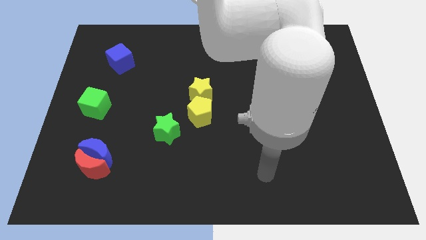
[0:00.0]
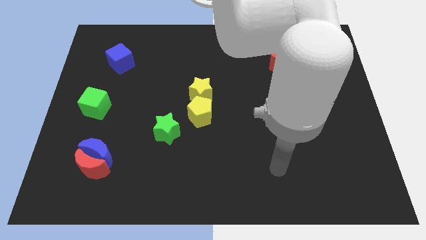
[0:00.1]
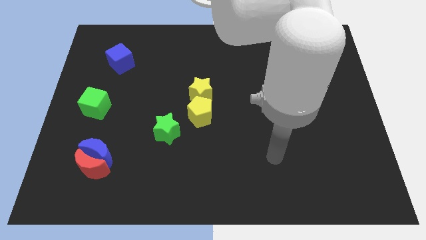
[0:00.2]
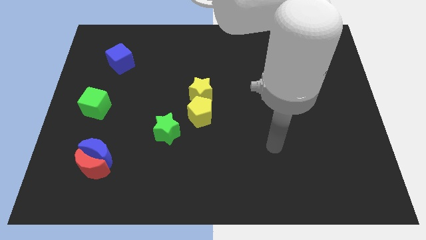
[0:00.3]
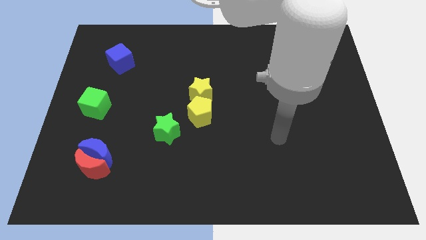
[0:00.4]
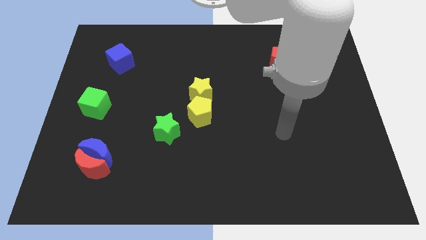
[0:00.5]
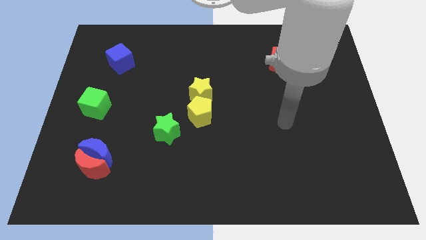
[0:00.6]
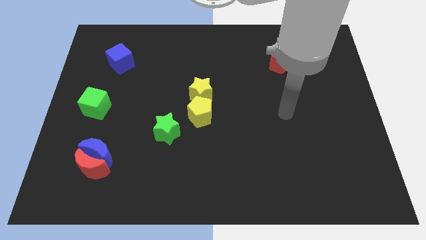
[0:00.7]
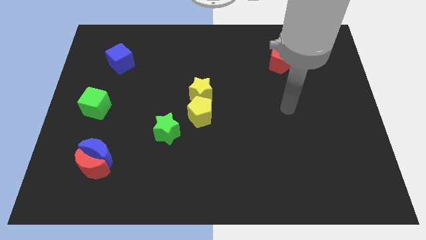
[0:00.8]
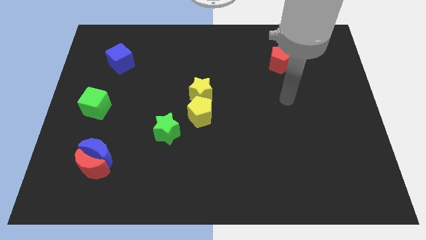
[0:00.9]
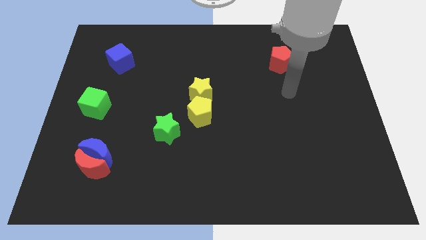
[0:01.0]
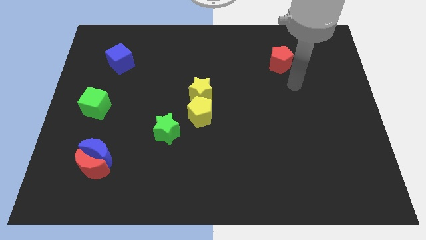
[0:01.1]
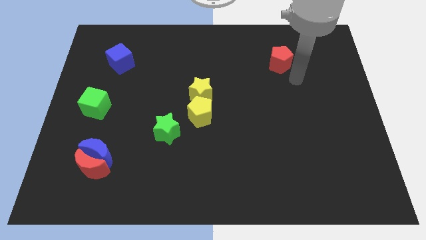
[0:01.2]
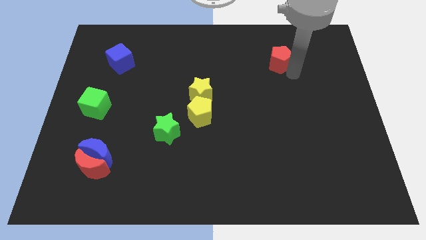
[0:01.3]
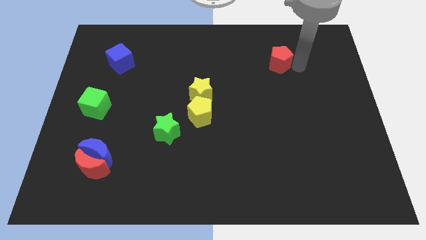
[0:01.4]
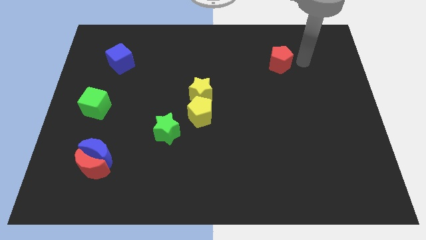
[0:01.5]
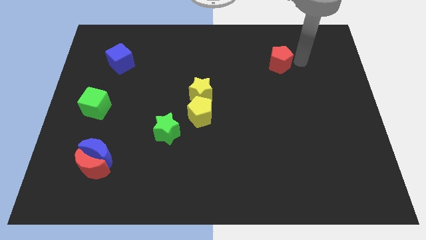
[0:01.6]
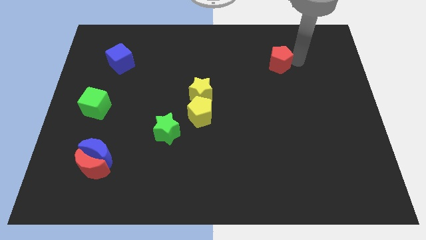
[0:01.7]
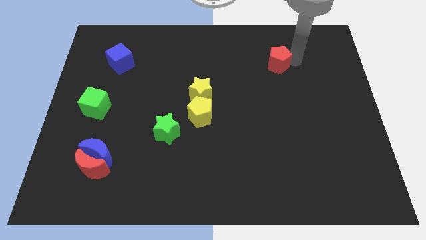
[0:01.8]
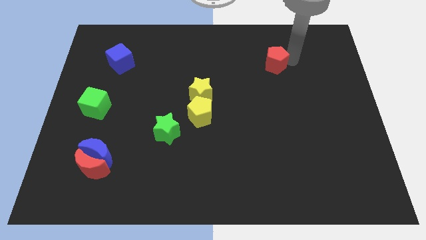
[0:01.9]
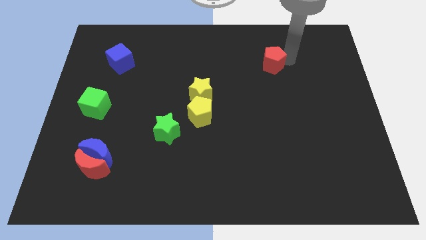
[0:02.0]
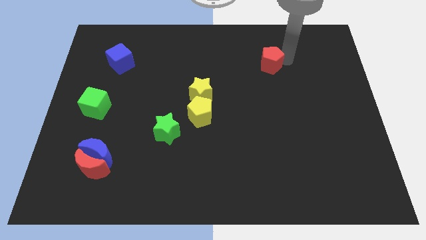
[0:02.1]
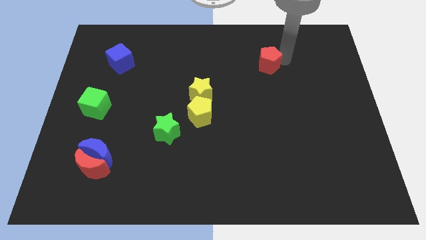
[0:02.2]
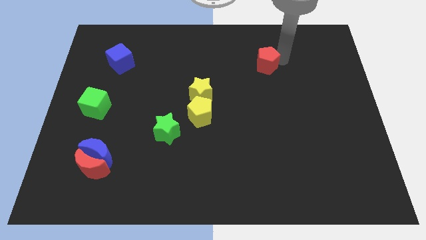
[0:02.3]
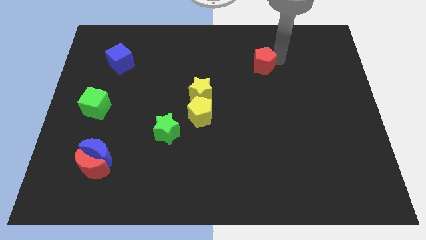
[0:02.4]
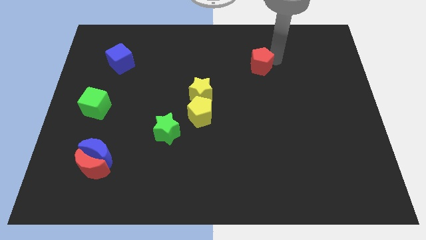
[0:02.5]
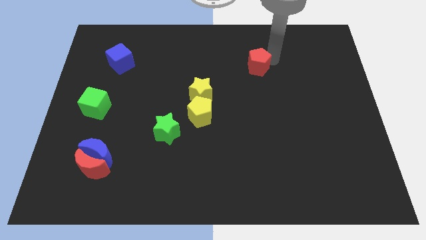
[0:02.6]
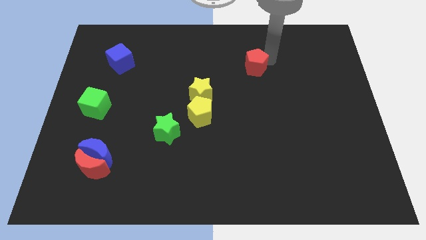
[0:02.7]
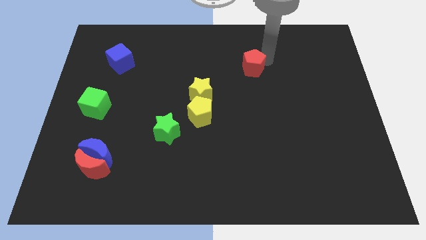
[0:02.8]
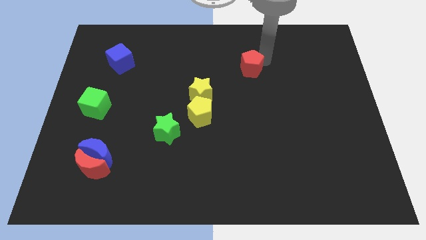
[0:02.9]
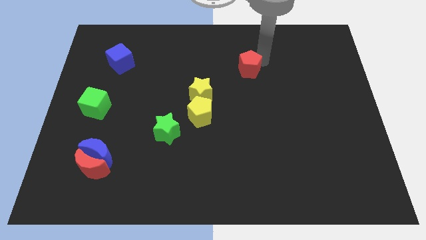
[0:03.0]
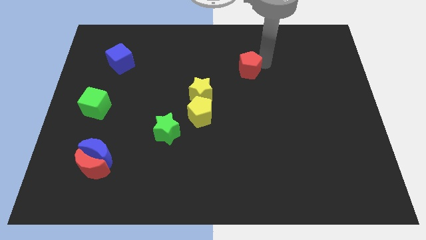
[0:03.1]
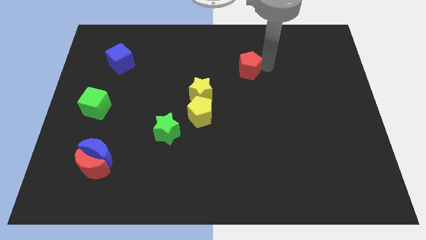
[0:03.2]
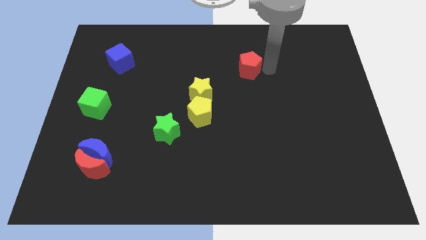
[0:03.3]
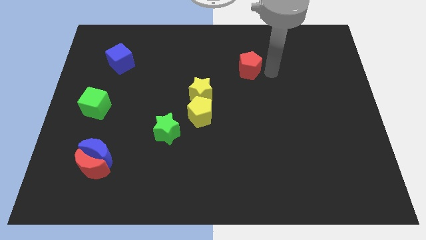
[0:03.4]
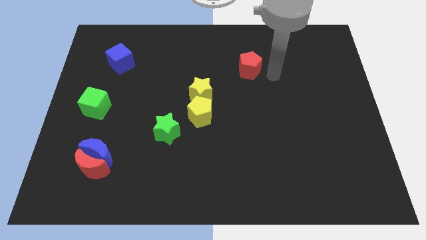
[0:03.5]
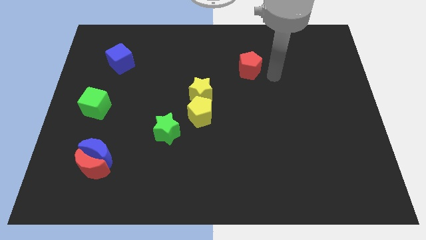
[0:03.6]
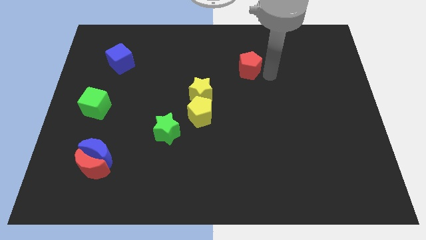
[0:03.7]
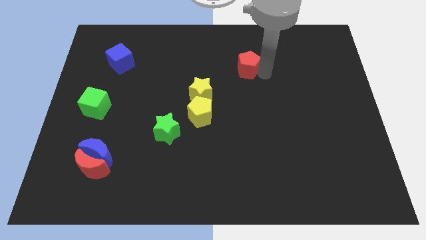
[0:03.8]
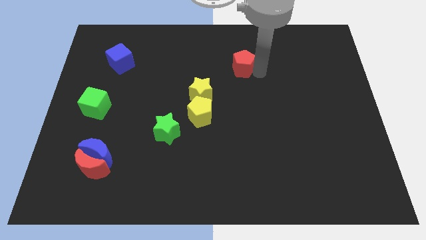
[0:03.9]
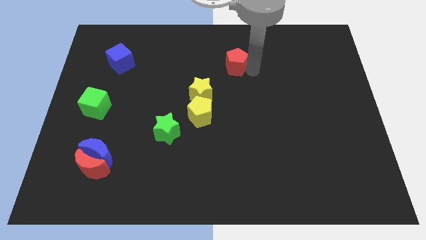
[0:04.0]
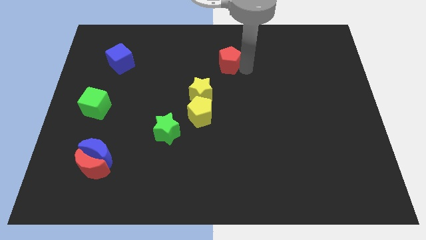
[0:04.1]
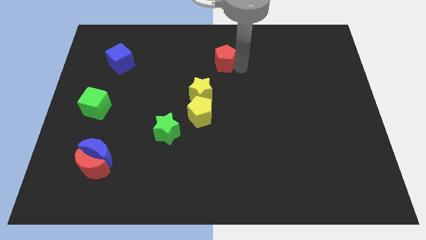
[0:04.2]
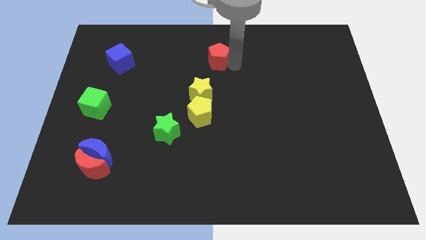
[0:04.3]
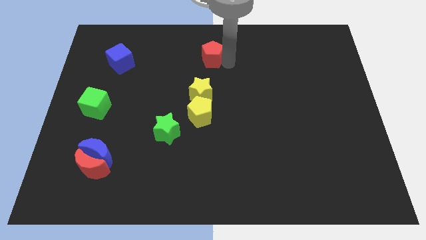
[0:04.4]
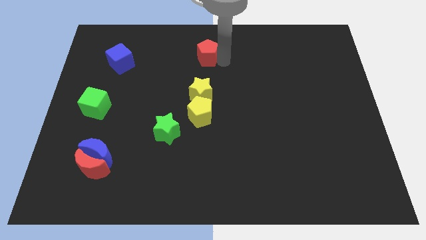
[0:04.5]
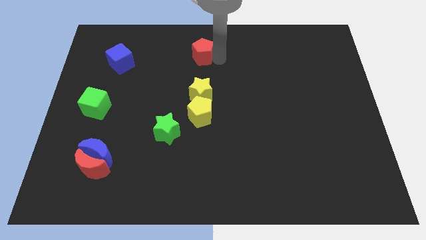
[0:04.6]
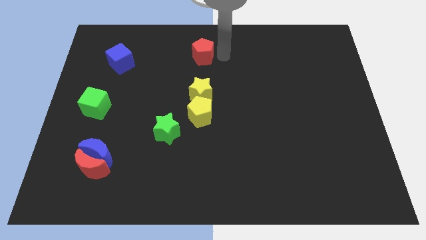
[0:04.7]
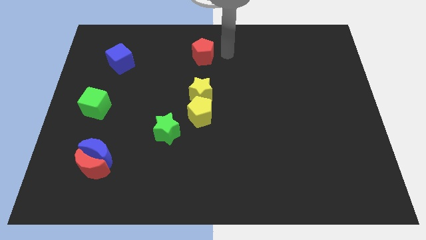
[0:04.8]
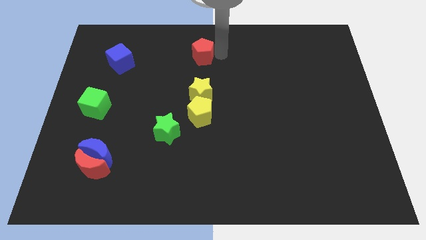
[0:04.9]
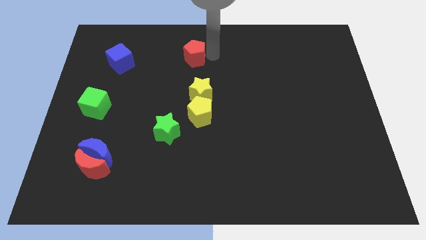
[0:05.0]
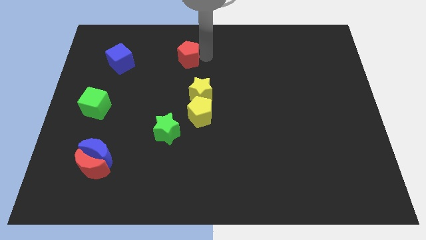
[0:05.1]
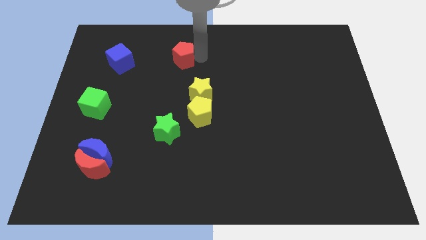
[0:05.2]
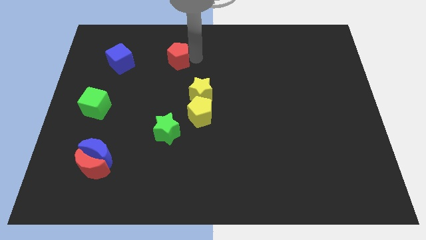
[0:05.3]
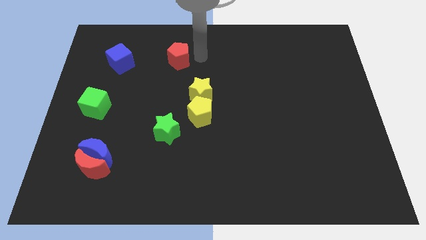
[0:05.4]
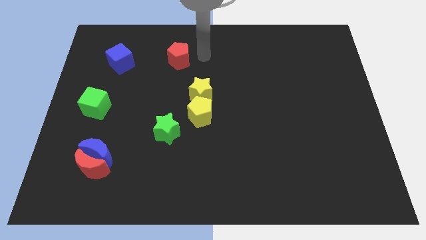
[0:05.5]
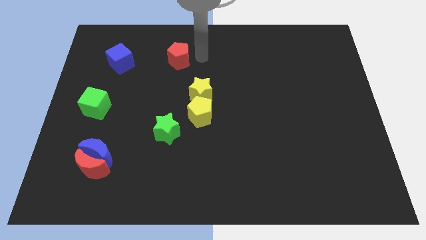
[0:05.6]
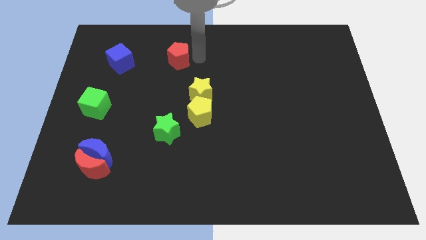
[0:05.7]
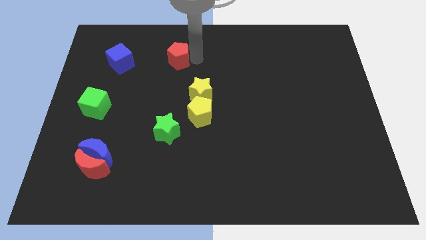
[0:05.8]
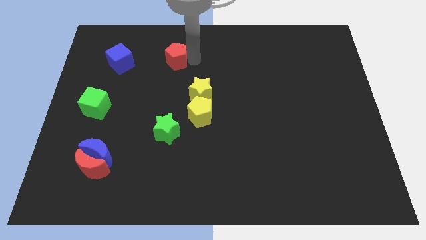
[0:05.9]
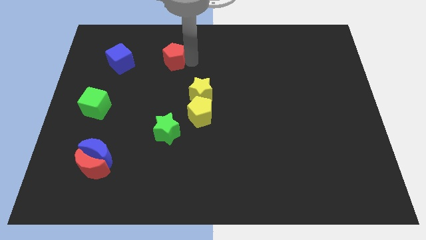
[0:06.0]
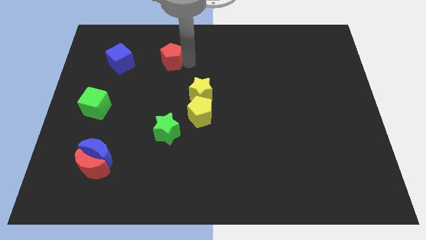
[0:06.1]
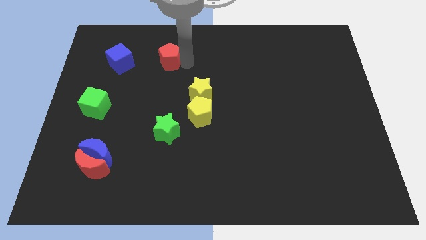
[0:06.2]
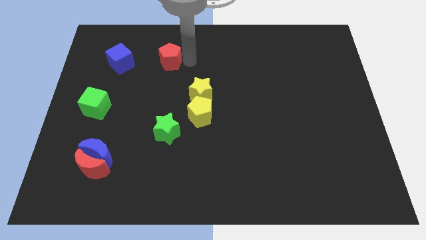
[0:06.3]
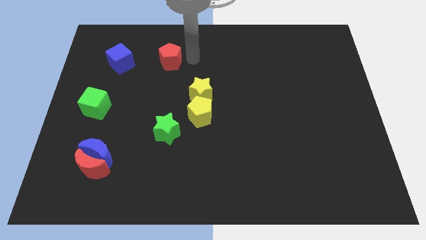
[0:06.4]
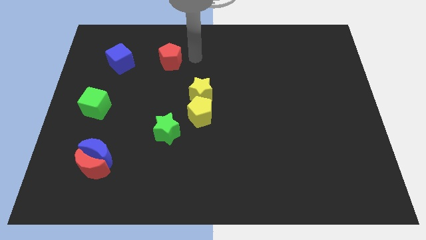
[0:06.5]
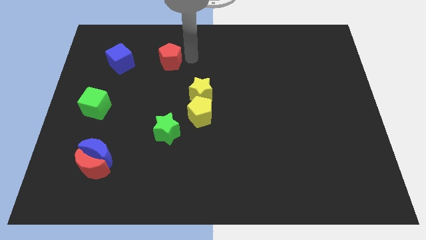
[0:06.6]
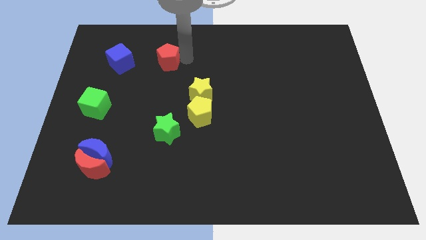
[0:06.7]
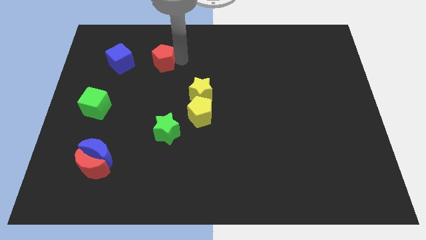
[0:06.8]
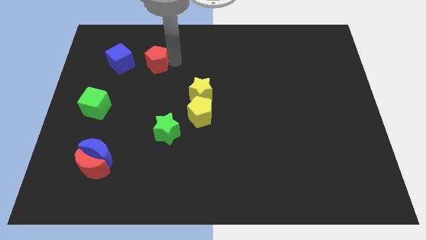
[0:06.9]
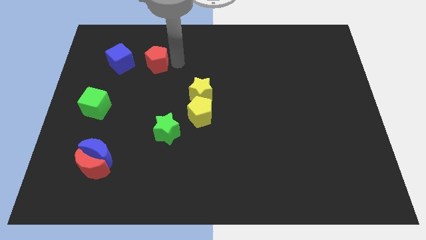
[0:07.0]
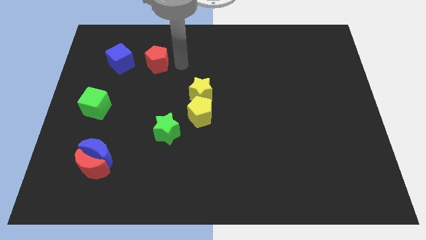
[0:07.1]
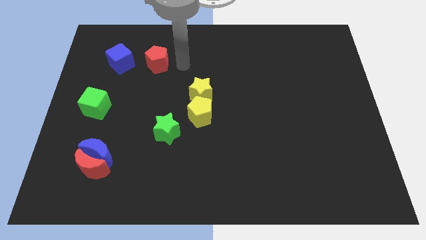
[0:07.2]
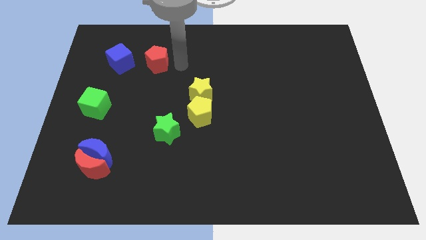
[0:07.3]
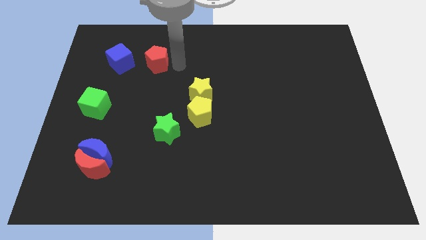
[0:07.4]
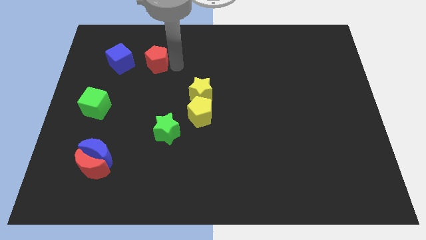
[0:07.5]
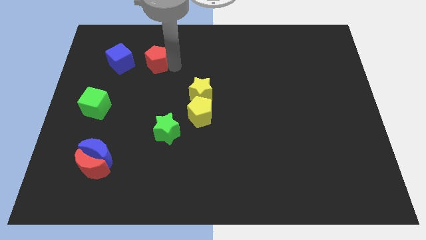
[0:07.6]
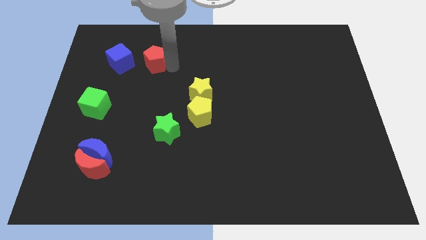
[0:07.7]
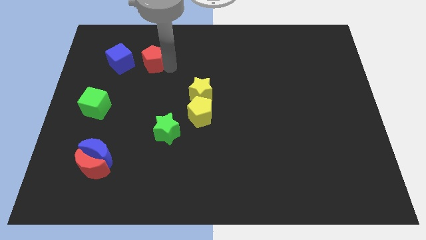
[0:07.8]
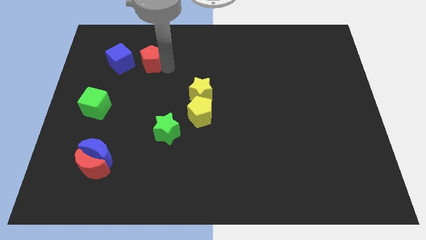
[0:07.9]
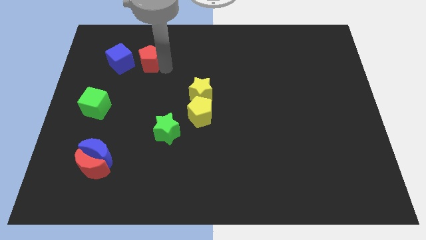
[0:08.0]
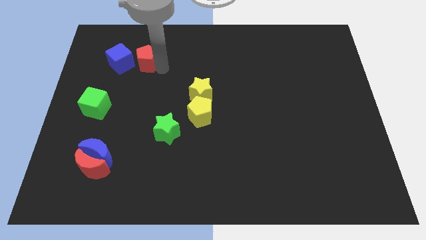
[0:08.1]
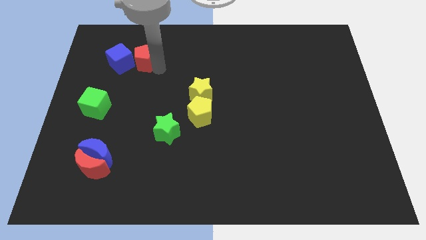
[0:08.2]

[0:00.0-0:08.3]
push the red pentagon towards the blue cube
